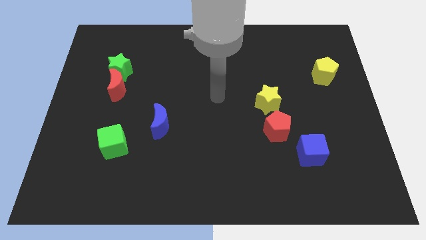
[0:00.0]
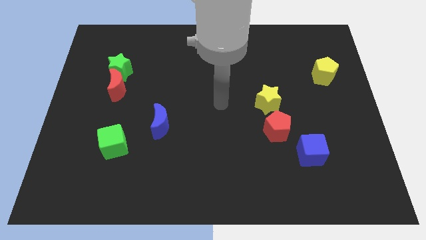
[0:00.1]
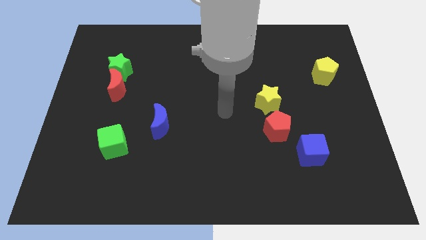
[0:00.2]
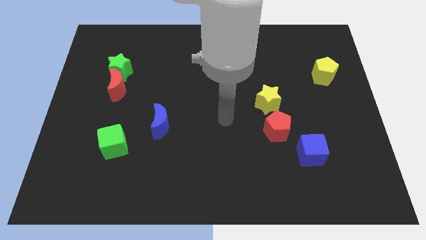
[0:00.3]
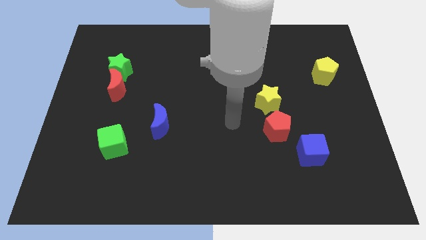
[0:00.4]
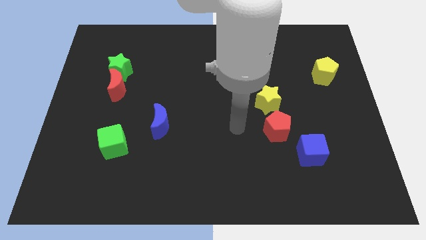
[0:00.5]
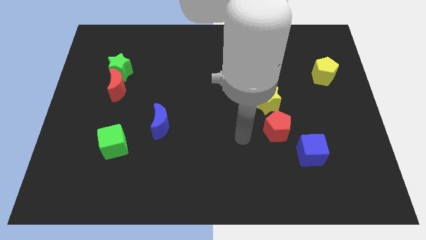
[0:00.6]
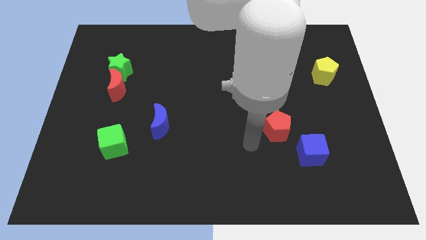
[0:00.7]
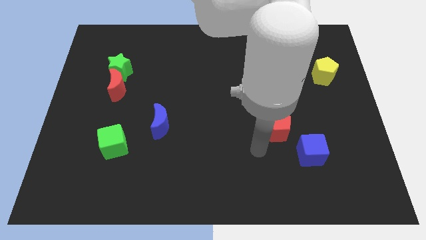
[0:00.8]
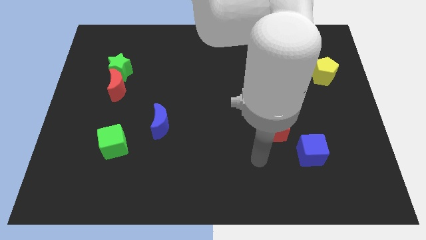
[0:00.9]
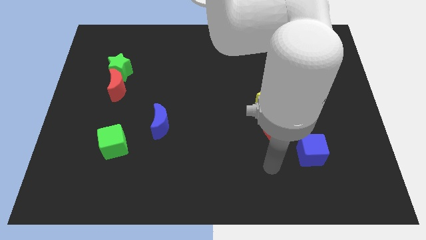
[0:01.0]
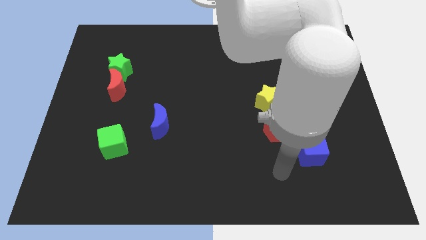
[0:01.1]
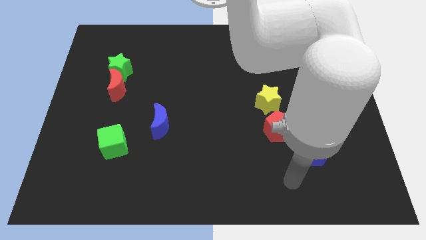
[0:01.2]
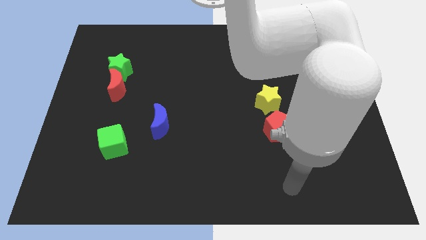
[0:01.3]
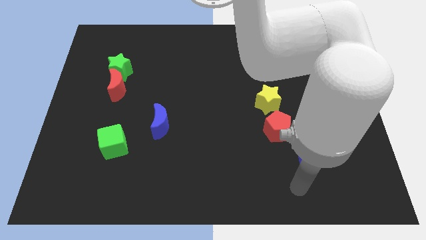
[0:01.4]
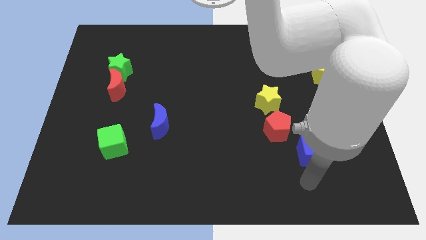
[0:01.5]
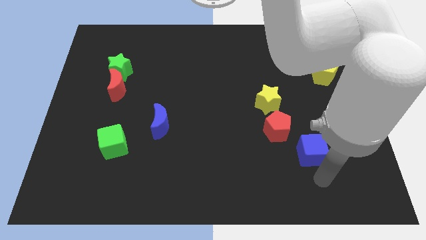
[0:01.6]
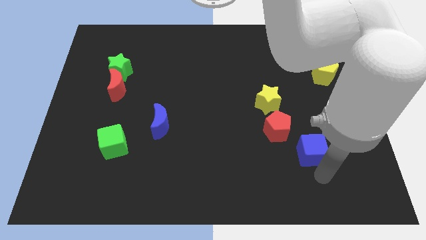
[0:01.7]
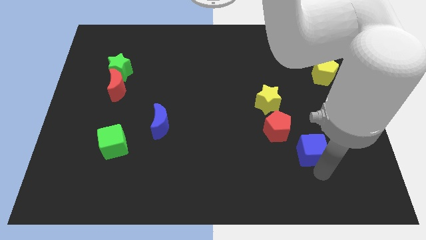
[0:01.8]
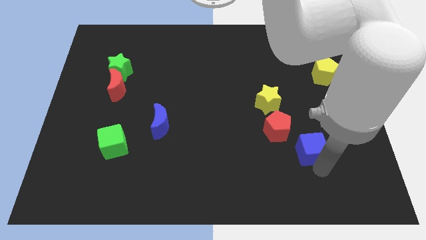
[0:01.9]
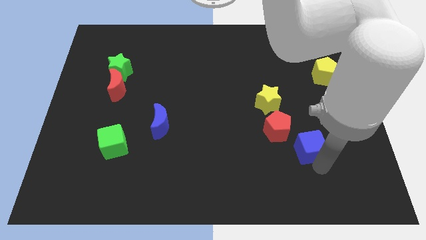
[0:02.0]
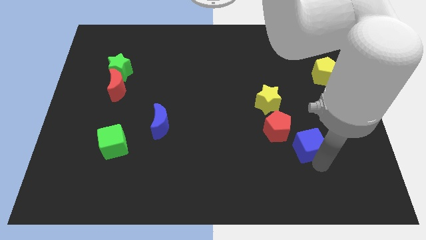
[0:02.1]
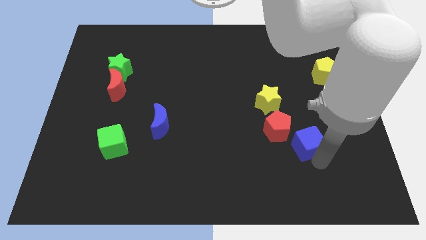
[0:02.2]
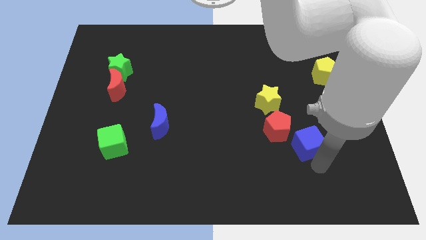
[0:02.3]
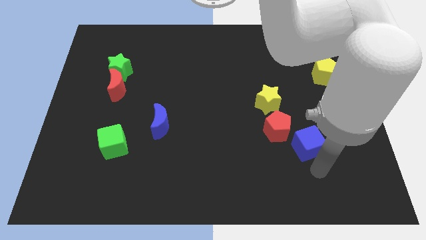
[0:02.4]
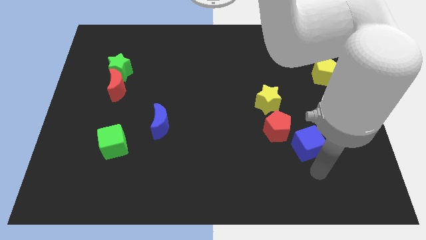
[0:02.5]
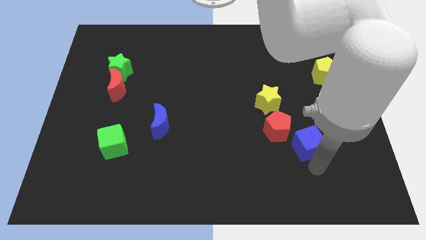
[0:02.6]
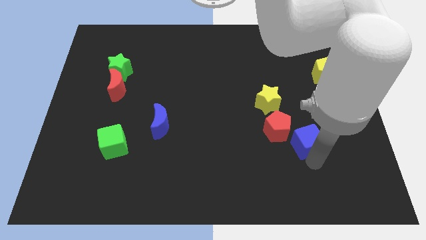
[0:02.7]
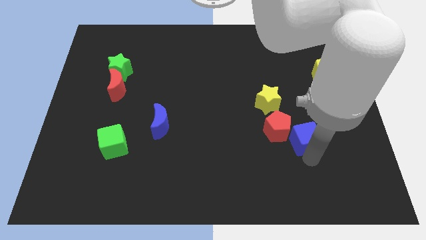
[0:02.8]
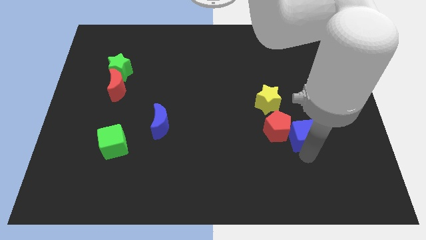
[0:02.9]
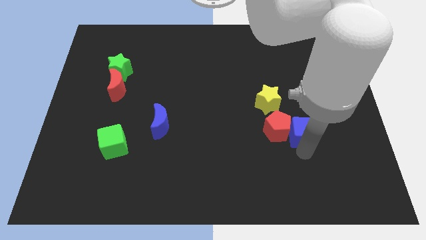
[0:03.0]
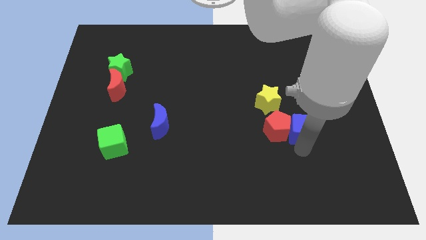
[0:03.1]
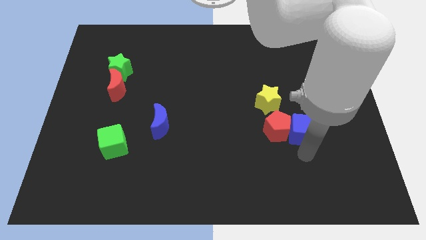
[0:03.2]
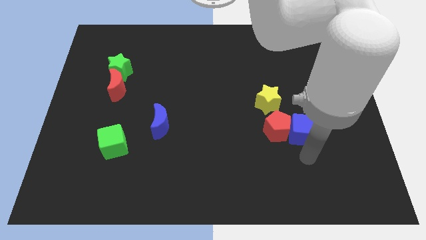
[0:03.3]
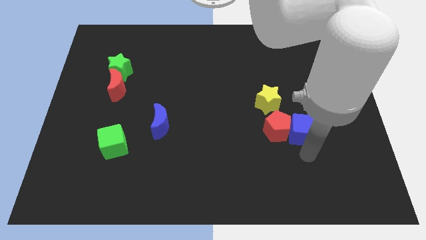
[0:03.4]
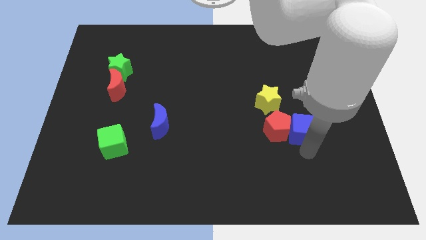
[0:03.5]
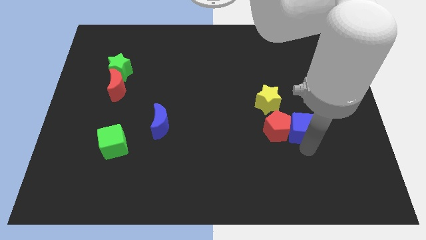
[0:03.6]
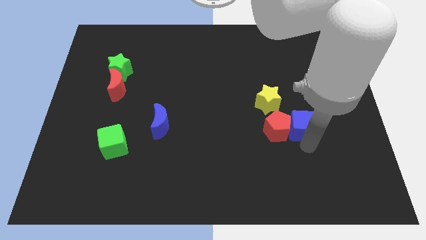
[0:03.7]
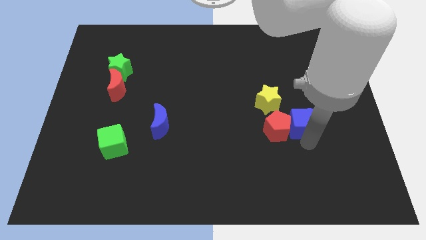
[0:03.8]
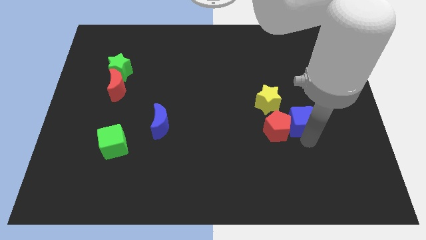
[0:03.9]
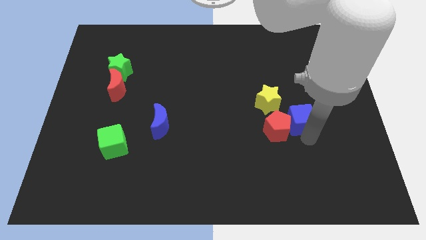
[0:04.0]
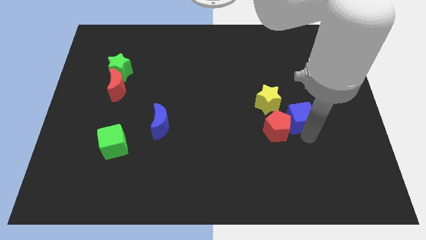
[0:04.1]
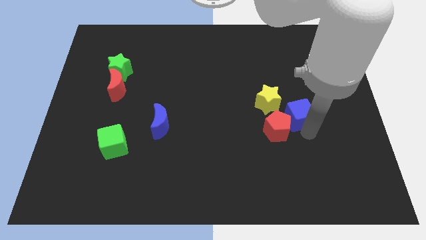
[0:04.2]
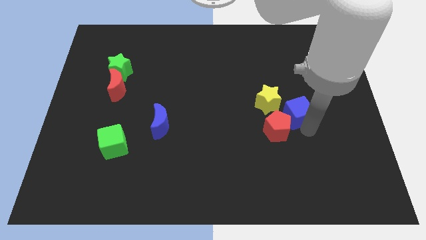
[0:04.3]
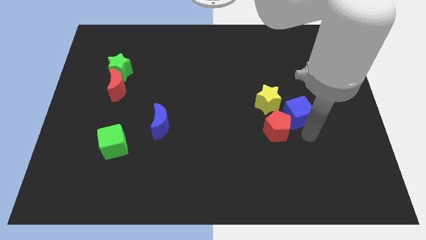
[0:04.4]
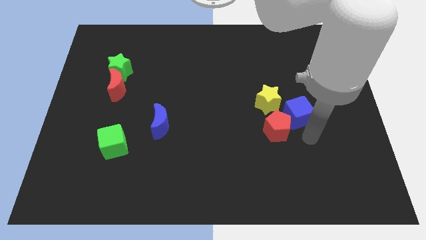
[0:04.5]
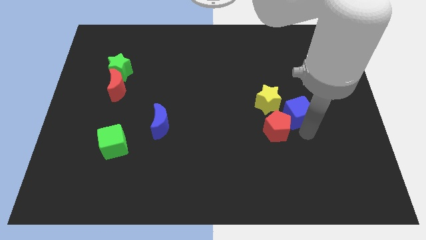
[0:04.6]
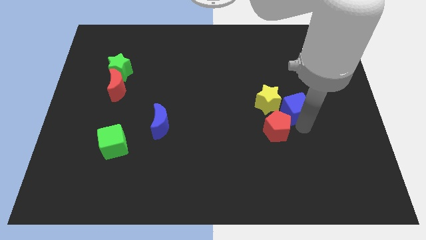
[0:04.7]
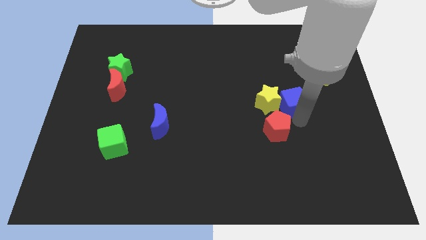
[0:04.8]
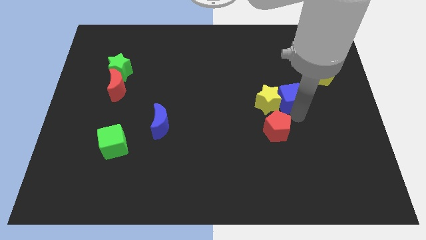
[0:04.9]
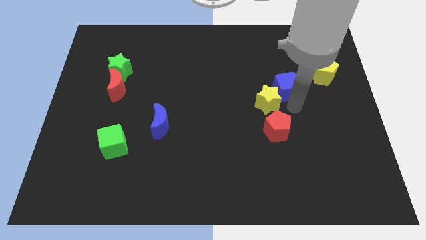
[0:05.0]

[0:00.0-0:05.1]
slide the blue cube above the yellow star

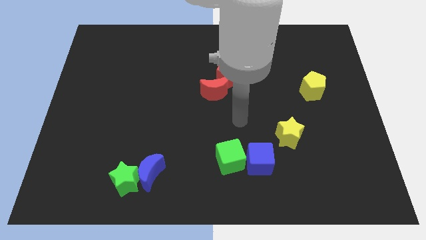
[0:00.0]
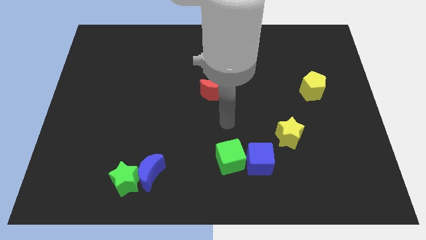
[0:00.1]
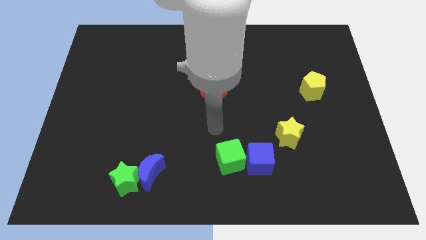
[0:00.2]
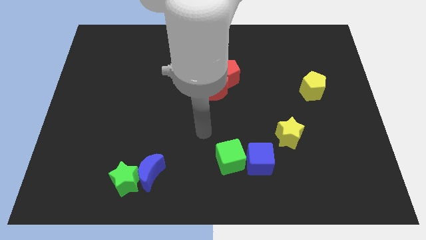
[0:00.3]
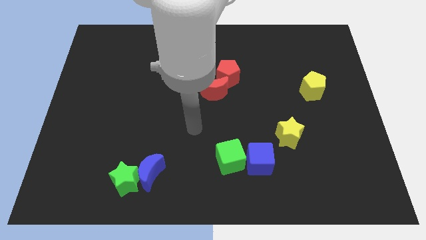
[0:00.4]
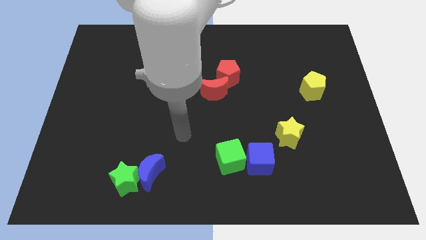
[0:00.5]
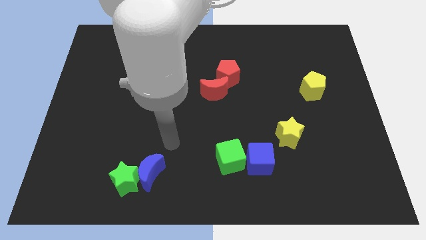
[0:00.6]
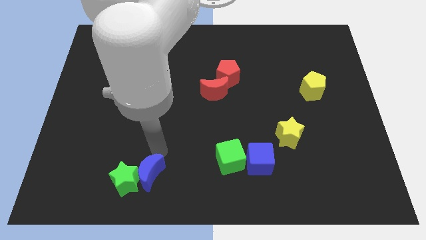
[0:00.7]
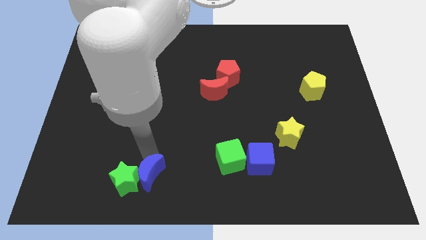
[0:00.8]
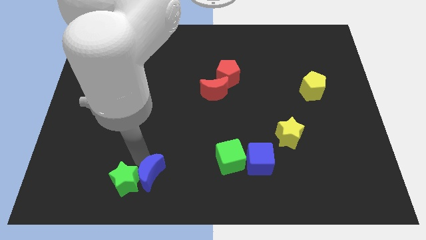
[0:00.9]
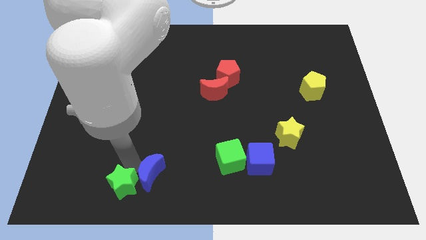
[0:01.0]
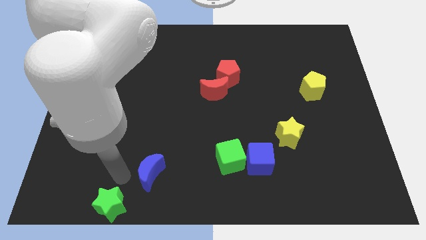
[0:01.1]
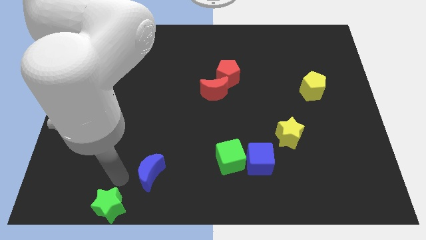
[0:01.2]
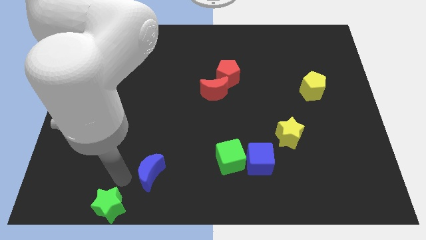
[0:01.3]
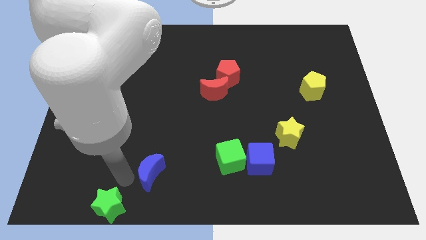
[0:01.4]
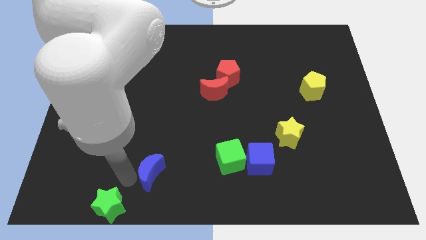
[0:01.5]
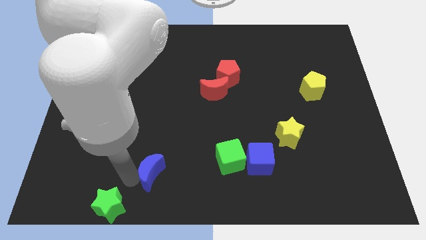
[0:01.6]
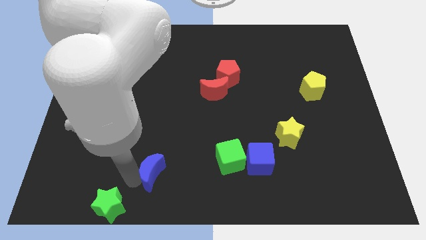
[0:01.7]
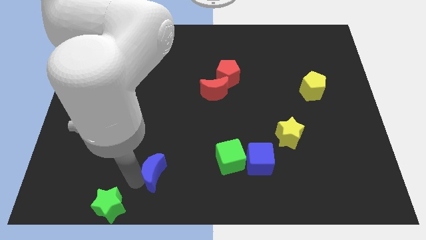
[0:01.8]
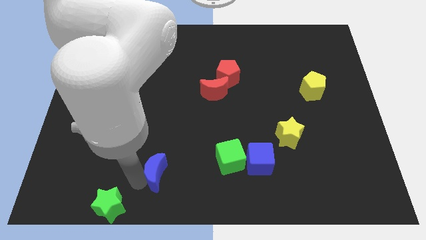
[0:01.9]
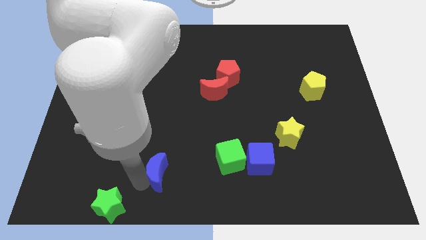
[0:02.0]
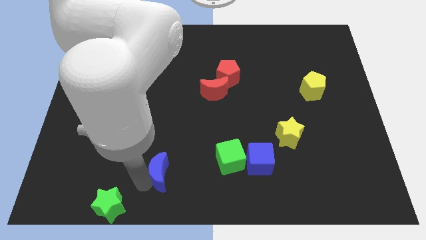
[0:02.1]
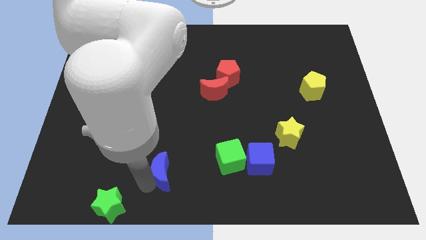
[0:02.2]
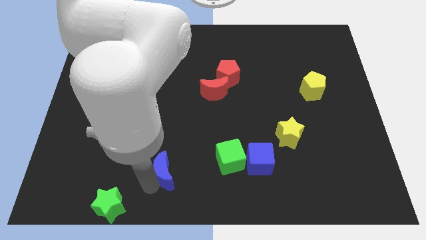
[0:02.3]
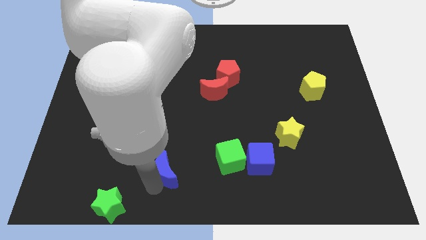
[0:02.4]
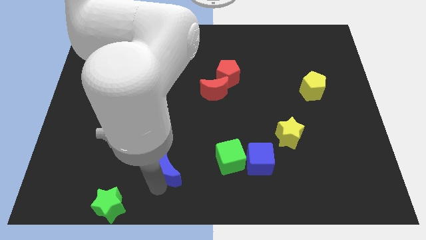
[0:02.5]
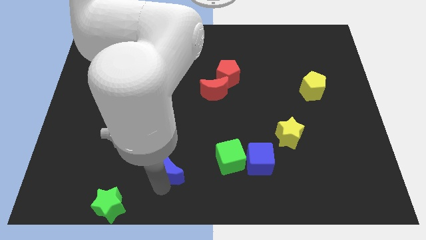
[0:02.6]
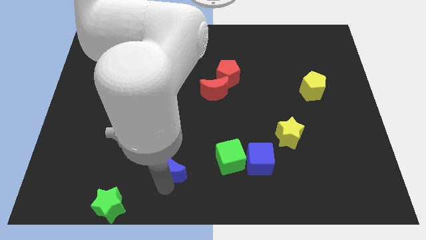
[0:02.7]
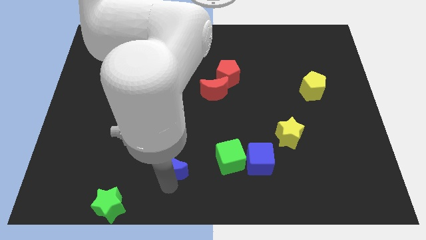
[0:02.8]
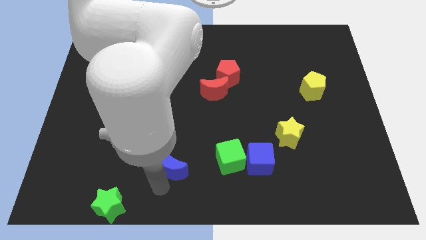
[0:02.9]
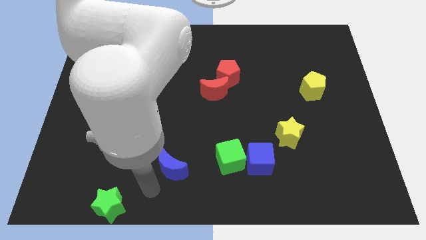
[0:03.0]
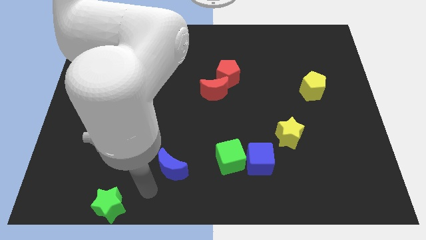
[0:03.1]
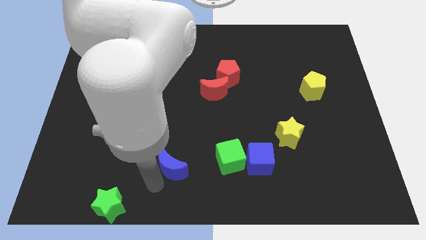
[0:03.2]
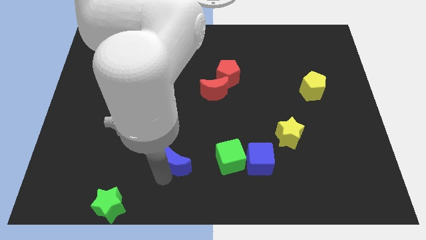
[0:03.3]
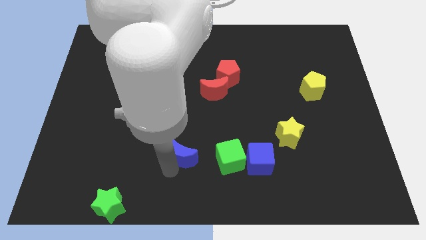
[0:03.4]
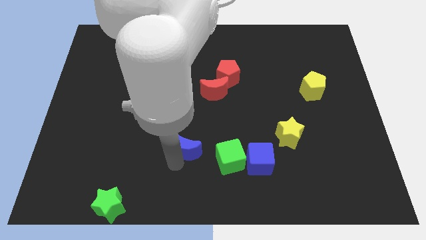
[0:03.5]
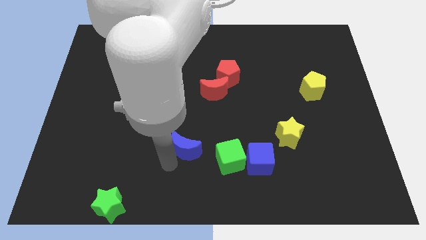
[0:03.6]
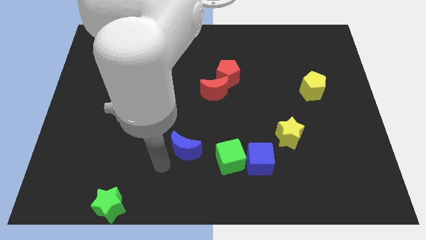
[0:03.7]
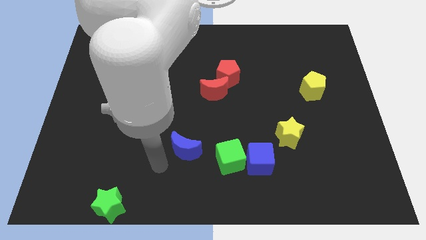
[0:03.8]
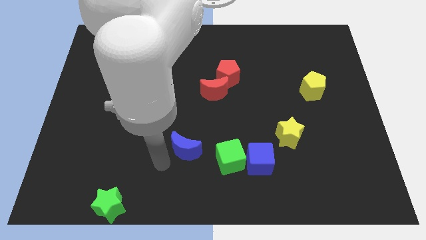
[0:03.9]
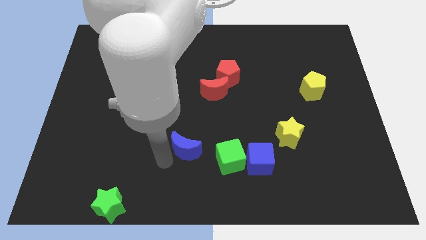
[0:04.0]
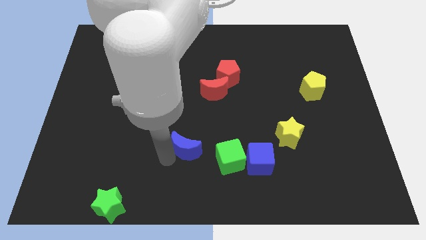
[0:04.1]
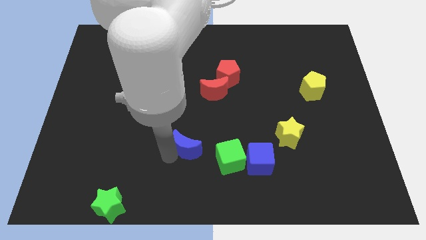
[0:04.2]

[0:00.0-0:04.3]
put the blue moon to the top left of the green cube
